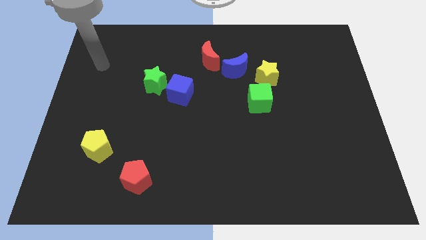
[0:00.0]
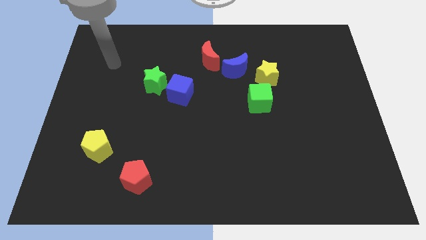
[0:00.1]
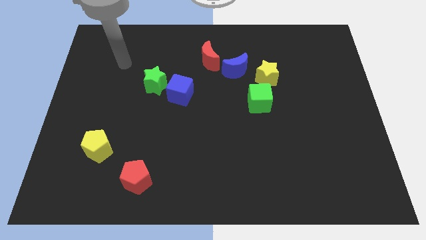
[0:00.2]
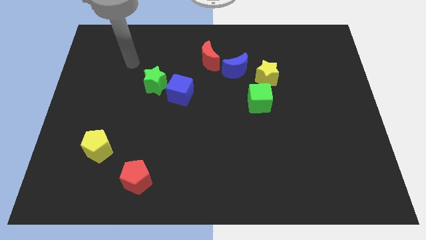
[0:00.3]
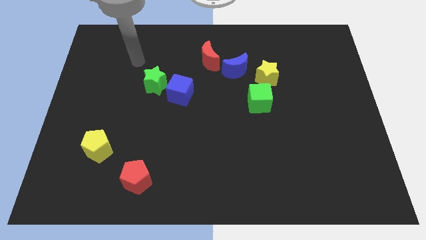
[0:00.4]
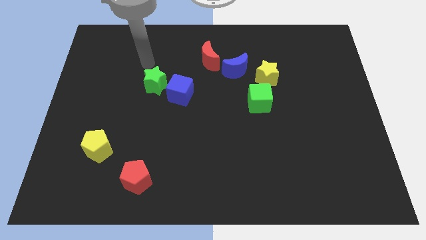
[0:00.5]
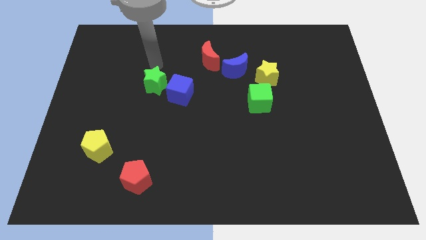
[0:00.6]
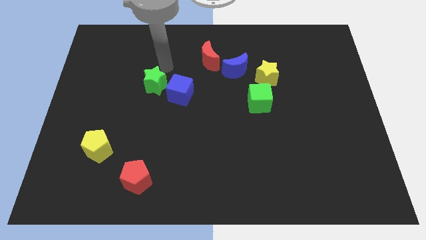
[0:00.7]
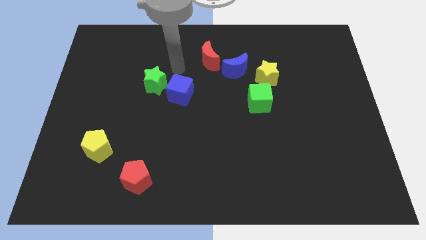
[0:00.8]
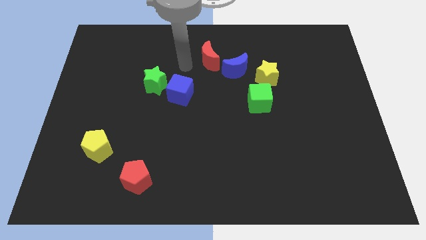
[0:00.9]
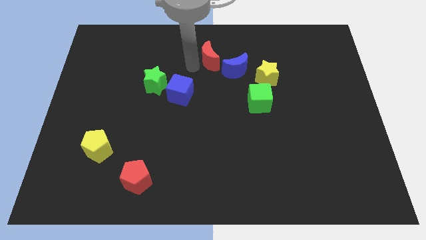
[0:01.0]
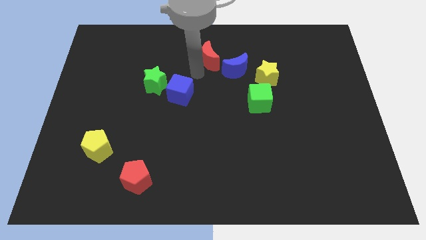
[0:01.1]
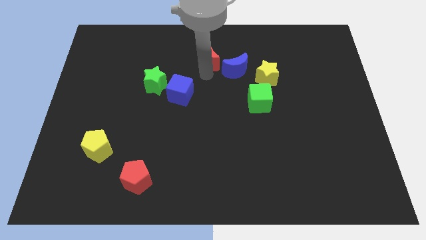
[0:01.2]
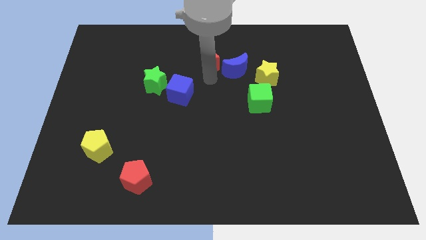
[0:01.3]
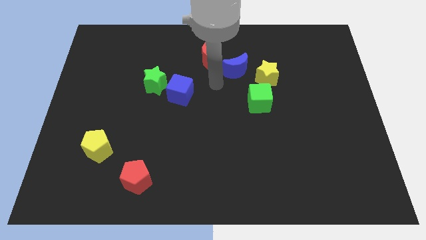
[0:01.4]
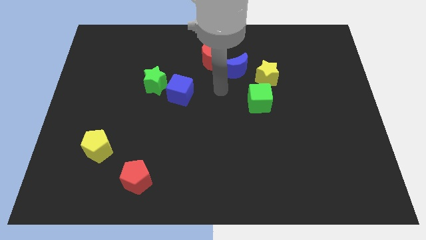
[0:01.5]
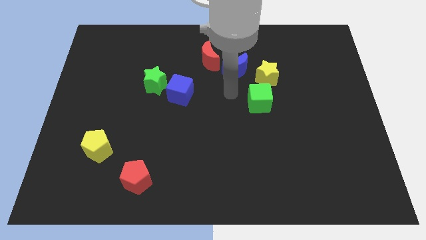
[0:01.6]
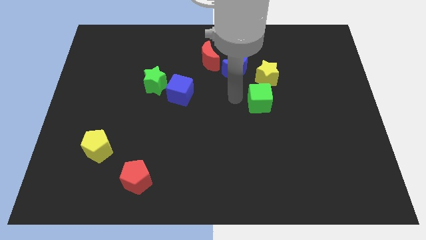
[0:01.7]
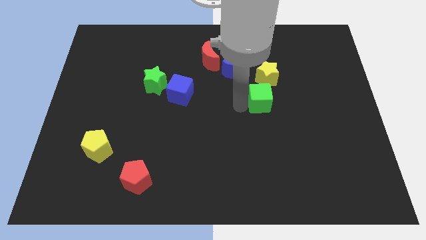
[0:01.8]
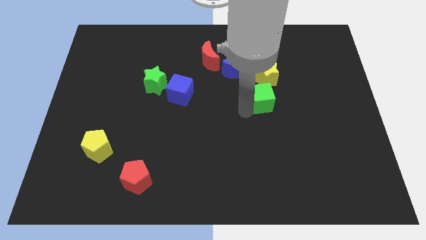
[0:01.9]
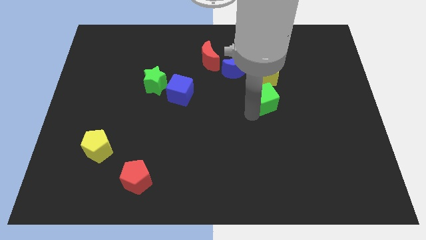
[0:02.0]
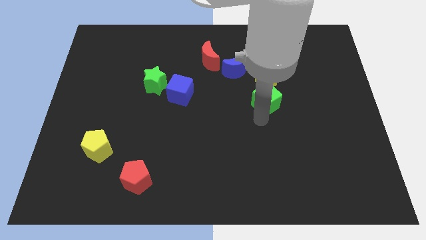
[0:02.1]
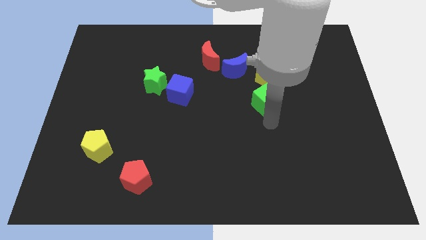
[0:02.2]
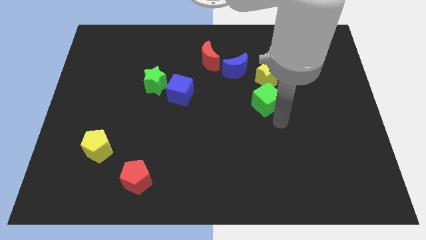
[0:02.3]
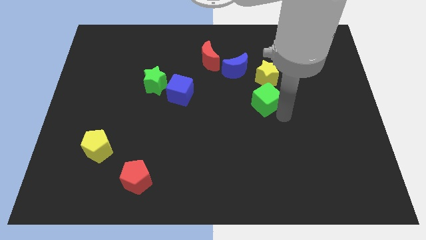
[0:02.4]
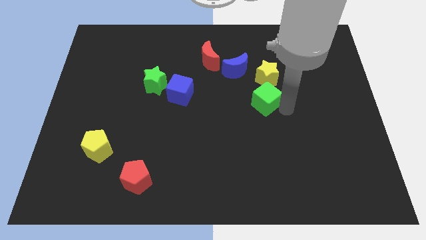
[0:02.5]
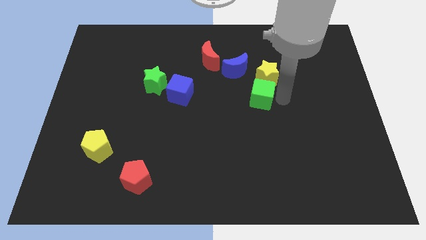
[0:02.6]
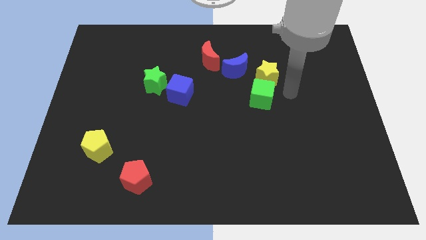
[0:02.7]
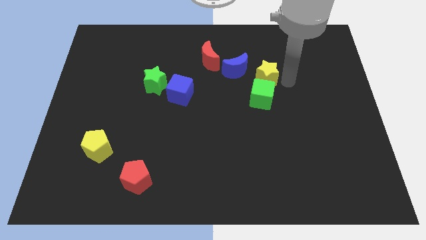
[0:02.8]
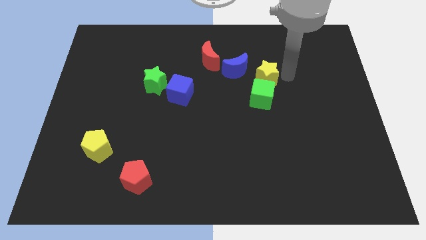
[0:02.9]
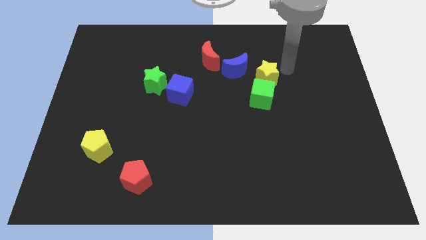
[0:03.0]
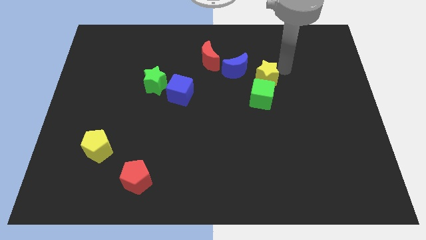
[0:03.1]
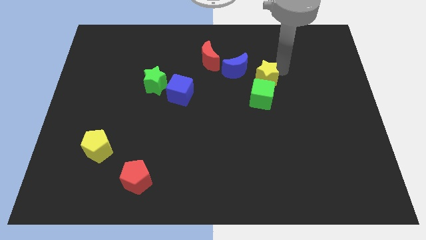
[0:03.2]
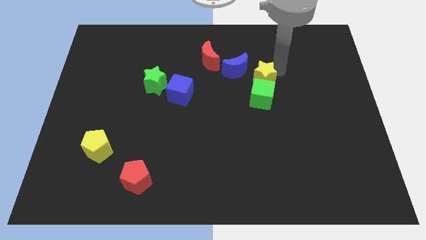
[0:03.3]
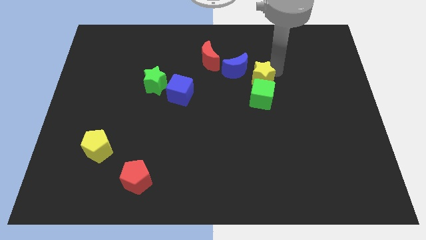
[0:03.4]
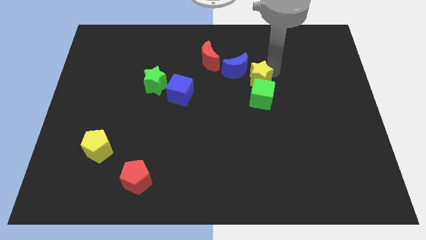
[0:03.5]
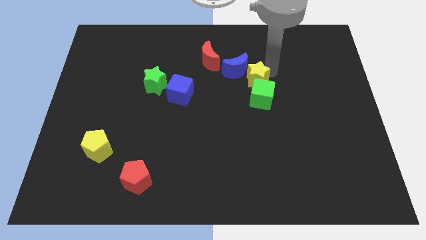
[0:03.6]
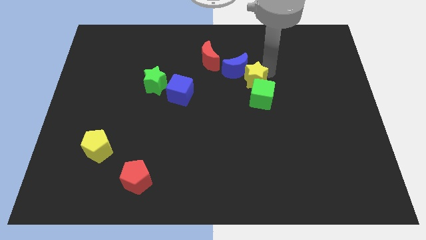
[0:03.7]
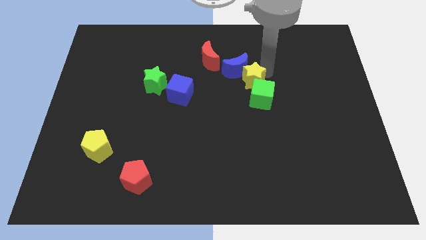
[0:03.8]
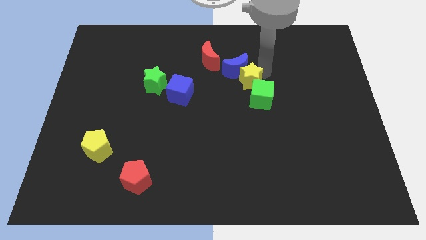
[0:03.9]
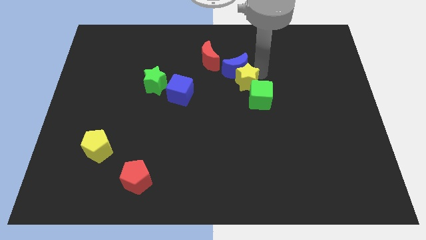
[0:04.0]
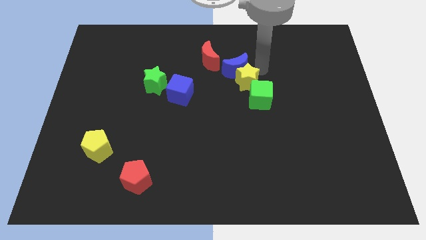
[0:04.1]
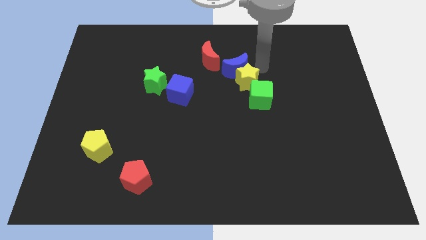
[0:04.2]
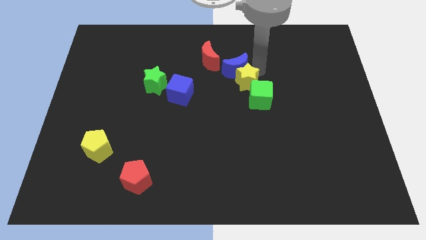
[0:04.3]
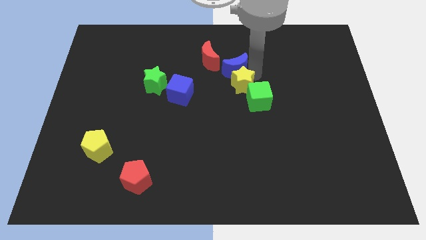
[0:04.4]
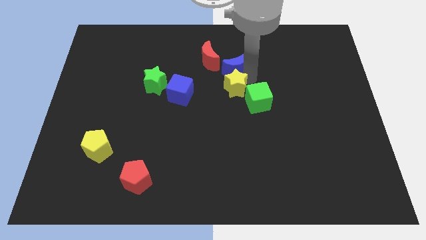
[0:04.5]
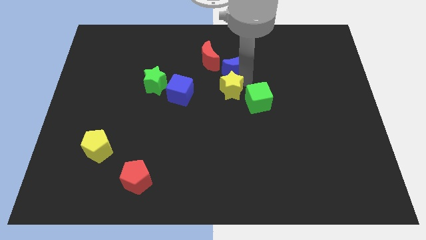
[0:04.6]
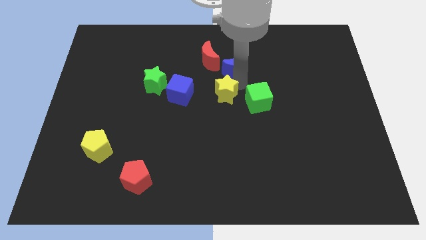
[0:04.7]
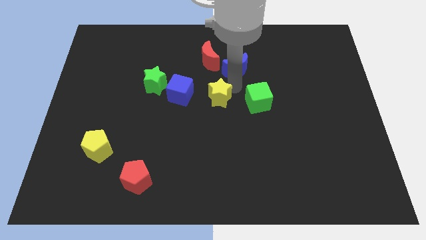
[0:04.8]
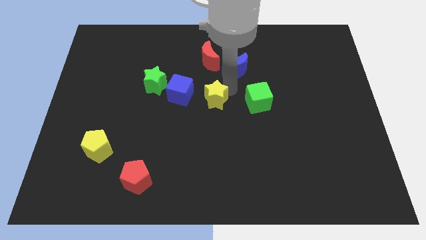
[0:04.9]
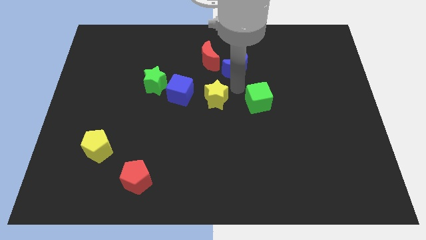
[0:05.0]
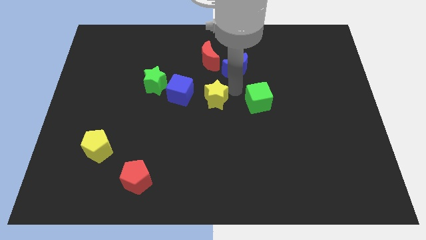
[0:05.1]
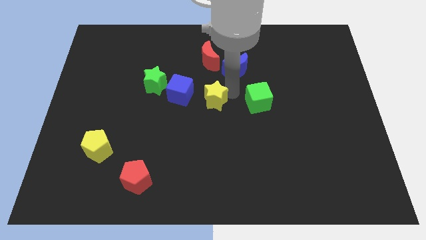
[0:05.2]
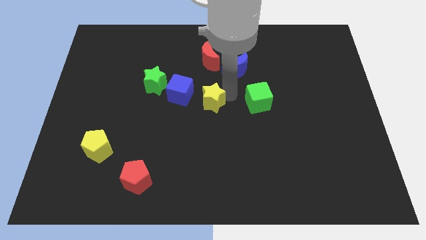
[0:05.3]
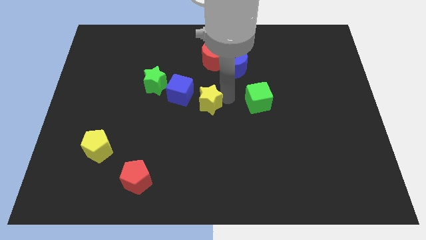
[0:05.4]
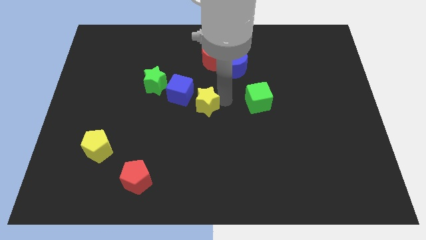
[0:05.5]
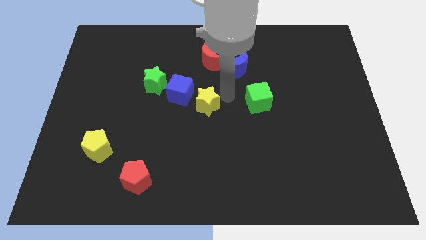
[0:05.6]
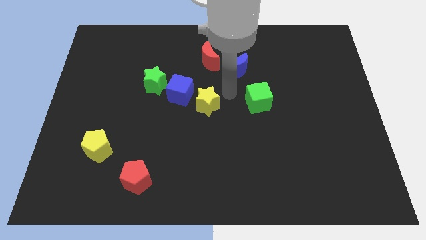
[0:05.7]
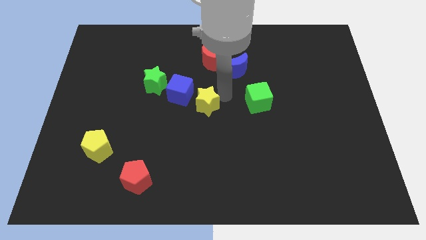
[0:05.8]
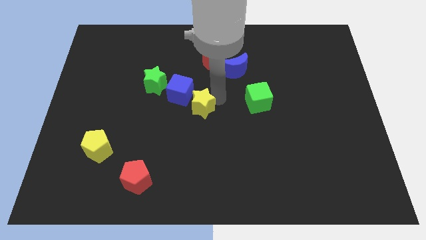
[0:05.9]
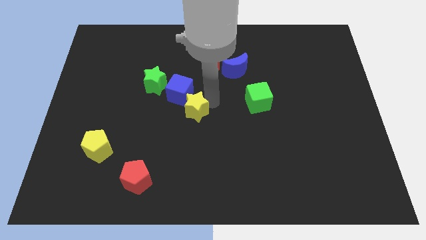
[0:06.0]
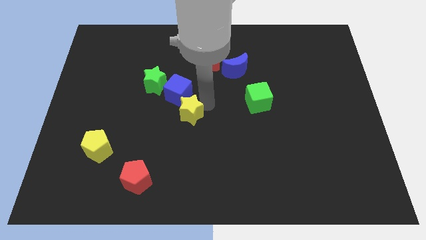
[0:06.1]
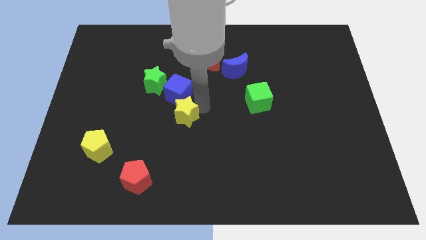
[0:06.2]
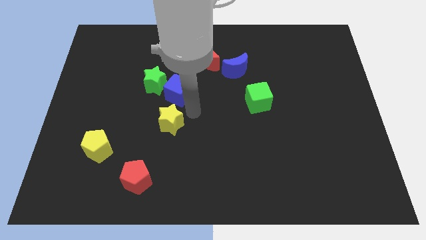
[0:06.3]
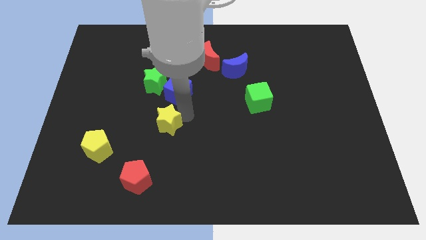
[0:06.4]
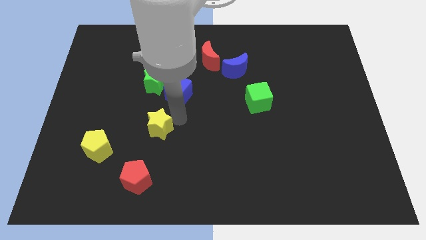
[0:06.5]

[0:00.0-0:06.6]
push the yellow star to the top side of the red pentagon
